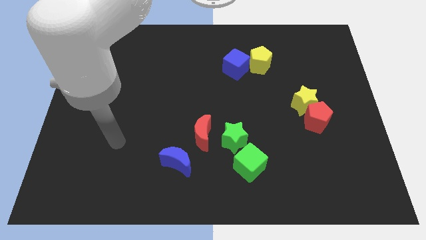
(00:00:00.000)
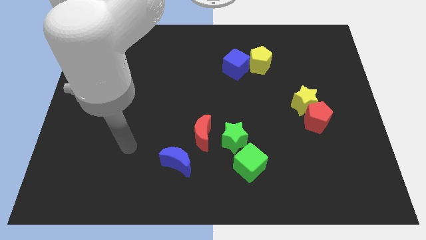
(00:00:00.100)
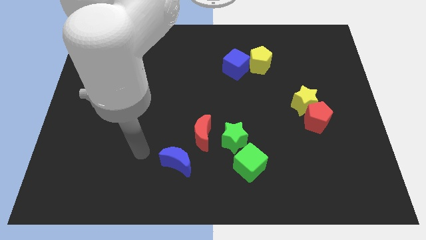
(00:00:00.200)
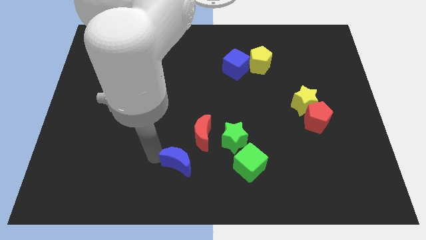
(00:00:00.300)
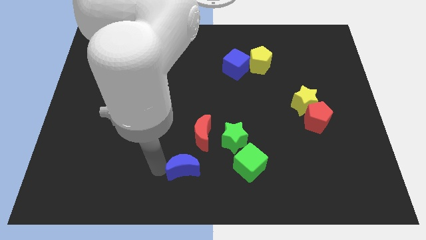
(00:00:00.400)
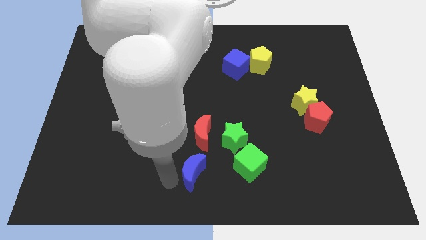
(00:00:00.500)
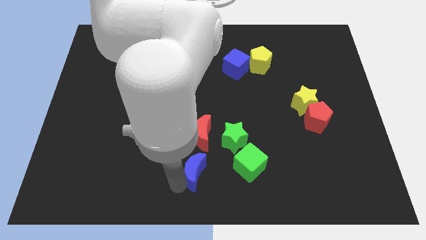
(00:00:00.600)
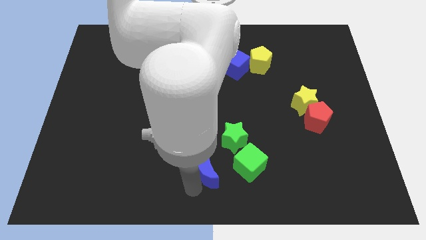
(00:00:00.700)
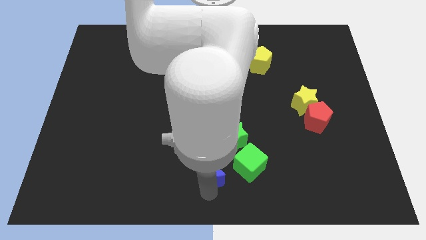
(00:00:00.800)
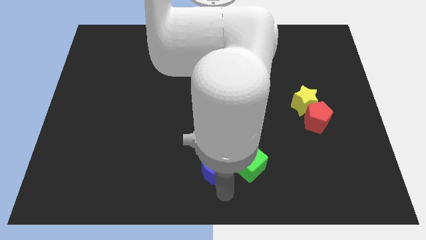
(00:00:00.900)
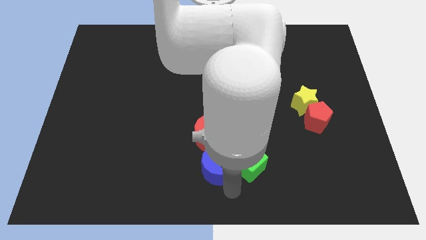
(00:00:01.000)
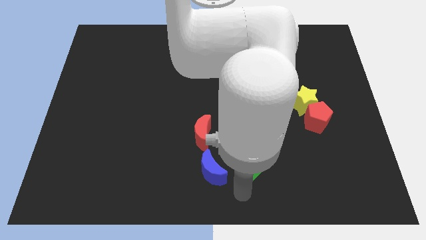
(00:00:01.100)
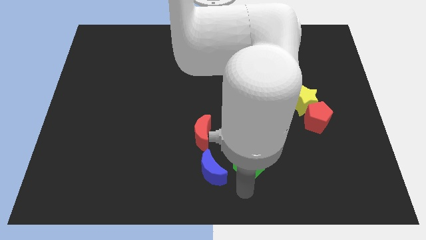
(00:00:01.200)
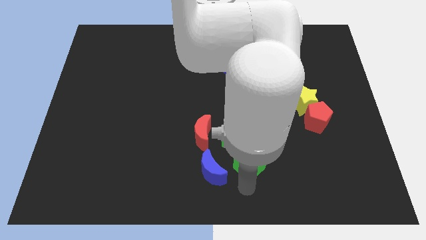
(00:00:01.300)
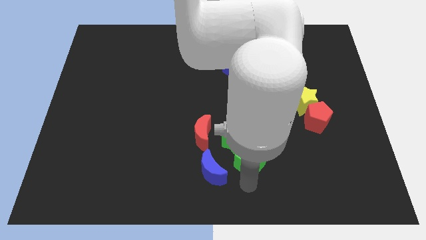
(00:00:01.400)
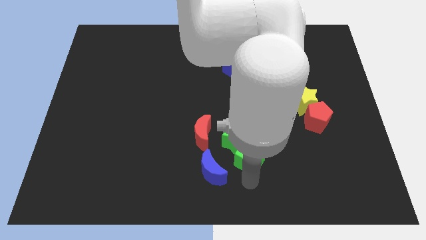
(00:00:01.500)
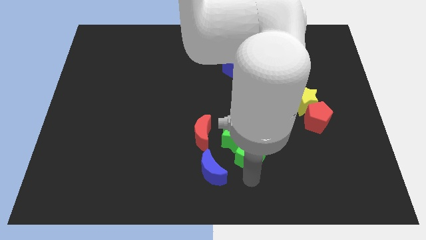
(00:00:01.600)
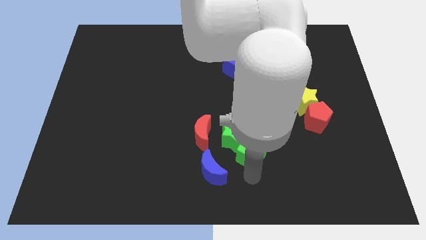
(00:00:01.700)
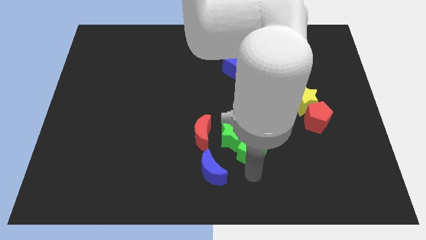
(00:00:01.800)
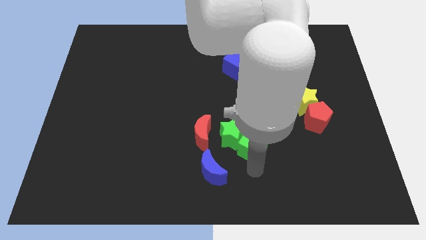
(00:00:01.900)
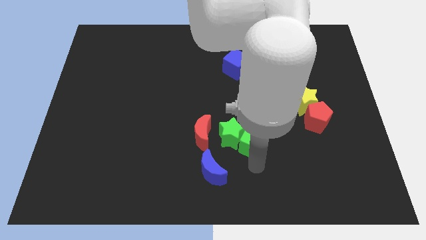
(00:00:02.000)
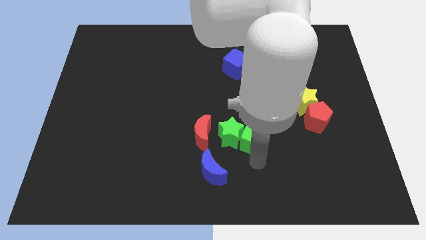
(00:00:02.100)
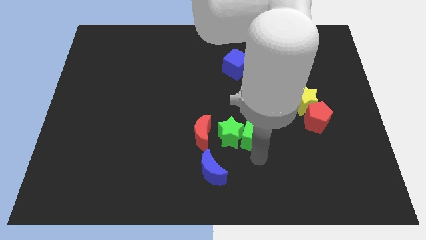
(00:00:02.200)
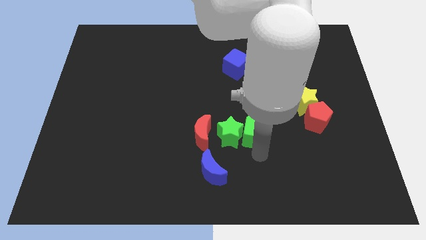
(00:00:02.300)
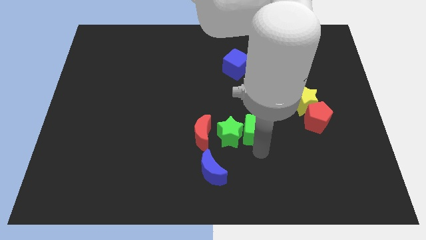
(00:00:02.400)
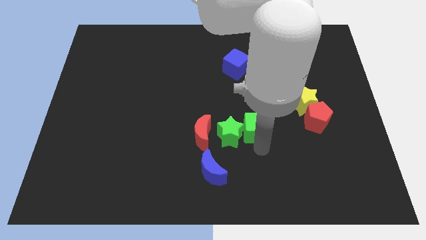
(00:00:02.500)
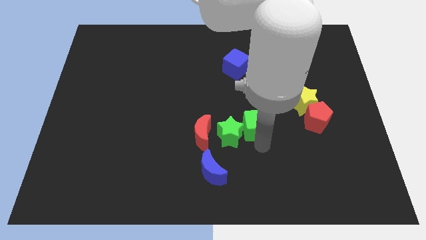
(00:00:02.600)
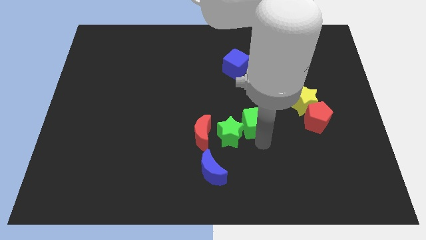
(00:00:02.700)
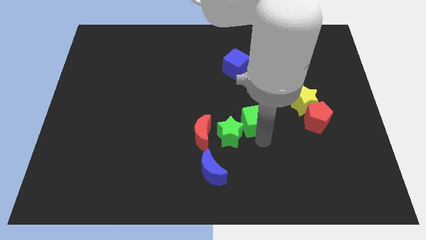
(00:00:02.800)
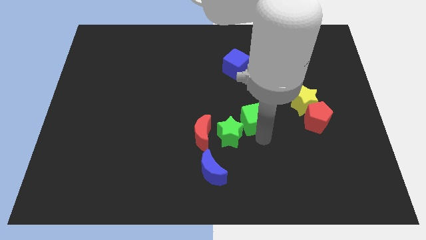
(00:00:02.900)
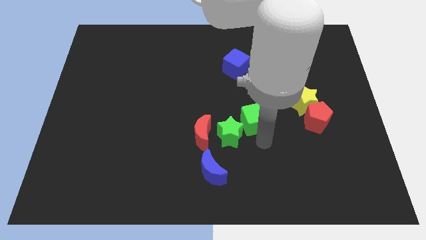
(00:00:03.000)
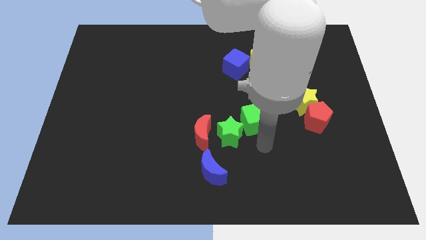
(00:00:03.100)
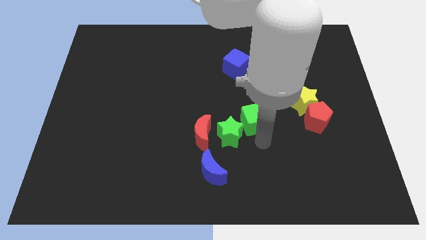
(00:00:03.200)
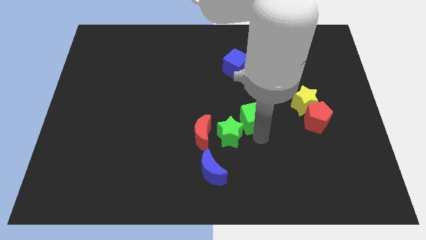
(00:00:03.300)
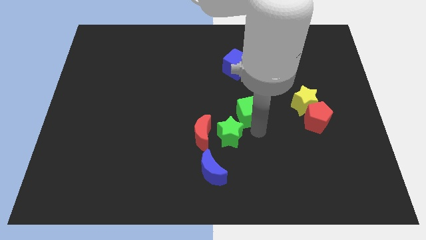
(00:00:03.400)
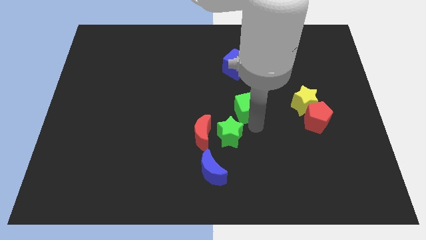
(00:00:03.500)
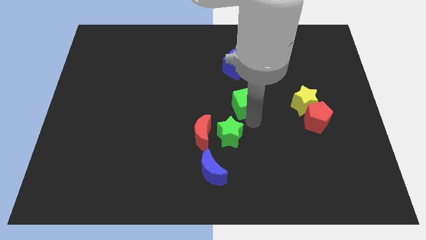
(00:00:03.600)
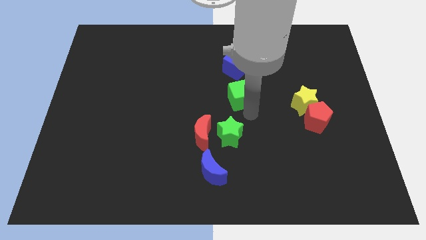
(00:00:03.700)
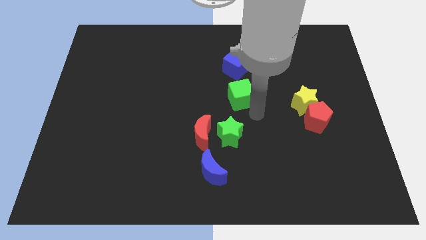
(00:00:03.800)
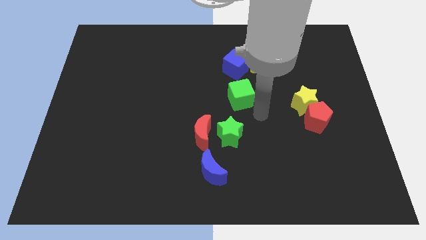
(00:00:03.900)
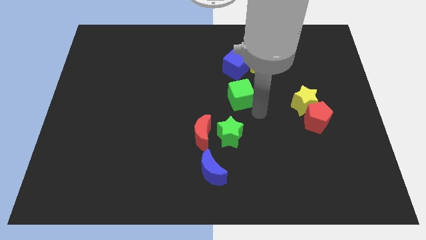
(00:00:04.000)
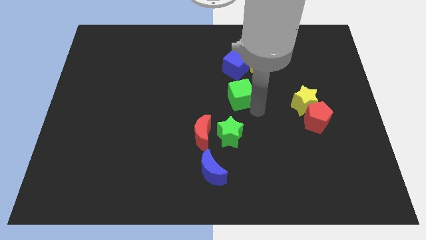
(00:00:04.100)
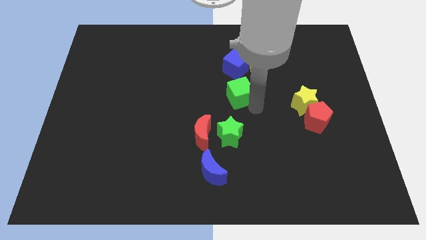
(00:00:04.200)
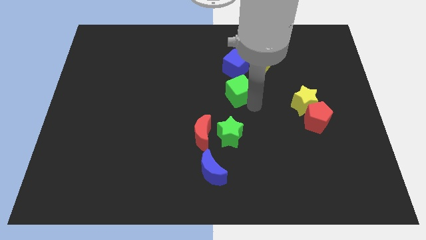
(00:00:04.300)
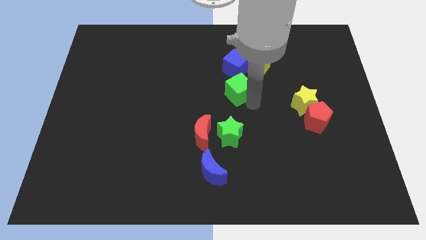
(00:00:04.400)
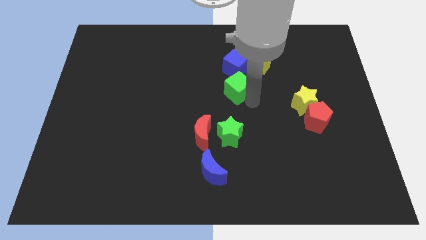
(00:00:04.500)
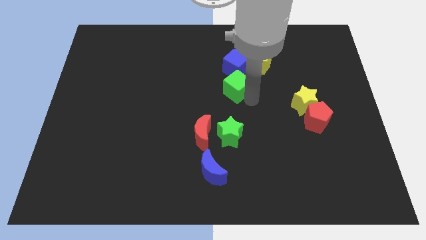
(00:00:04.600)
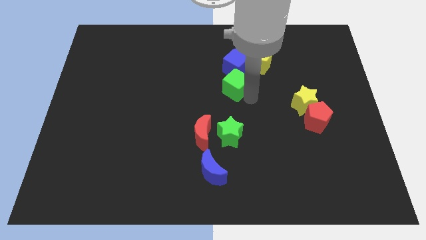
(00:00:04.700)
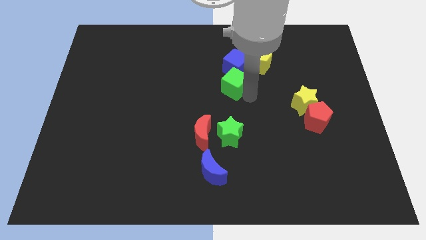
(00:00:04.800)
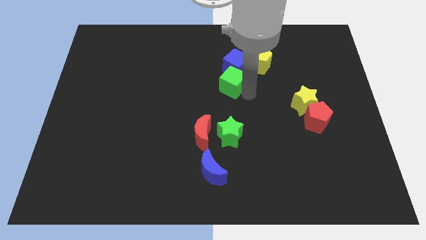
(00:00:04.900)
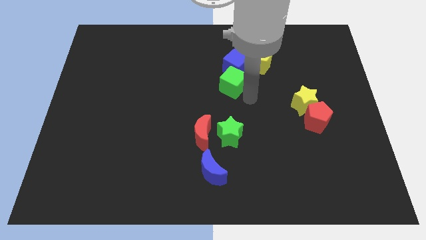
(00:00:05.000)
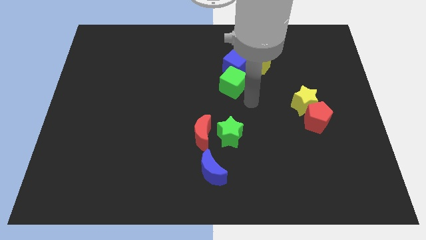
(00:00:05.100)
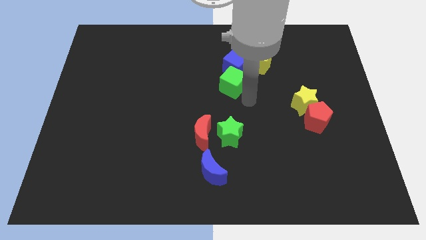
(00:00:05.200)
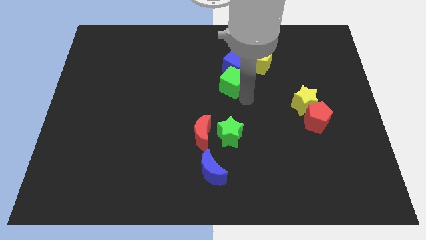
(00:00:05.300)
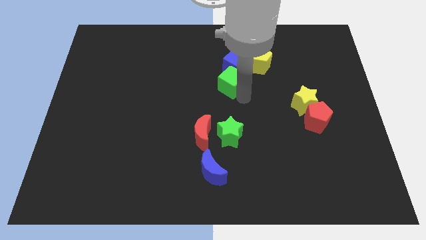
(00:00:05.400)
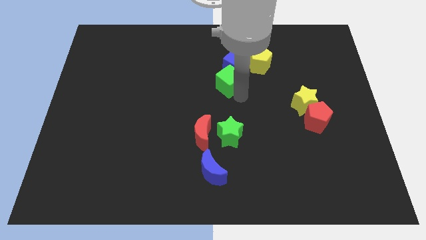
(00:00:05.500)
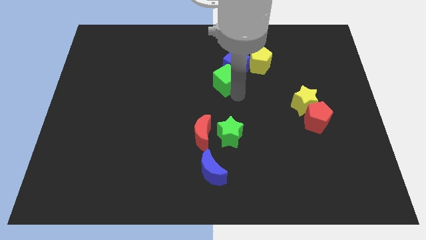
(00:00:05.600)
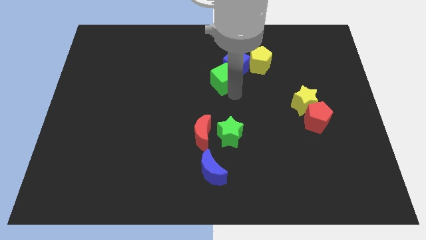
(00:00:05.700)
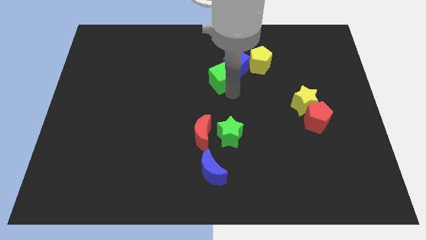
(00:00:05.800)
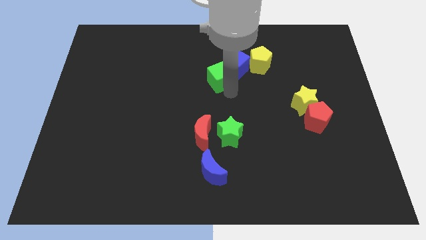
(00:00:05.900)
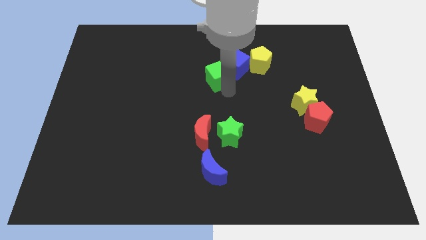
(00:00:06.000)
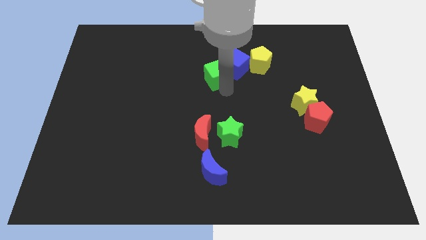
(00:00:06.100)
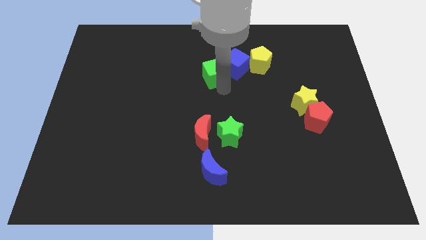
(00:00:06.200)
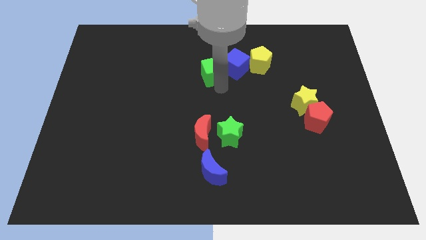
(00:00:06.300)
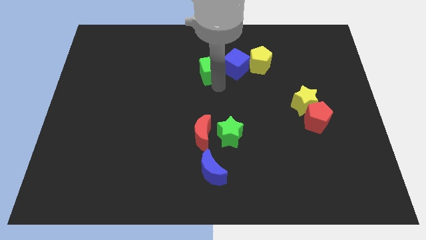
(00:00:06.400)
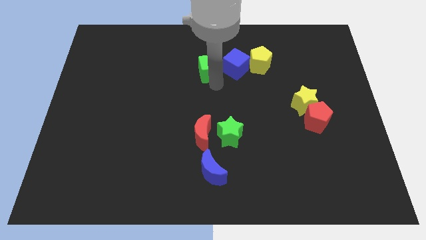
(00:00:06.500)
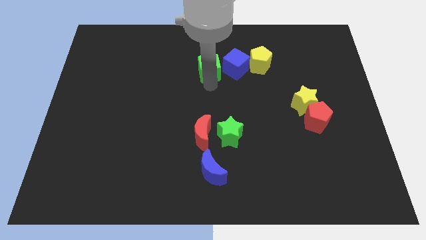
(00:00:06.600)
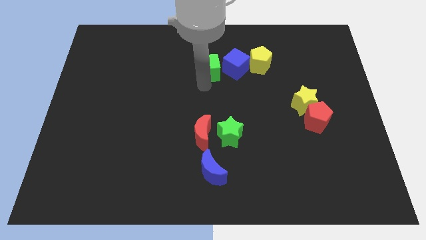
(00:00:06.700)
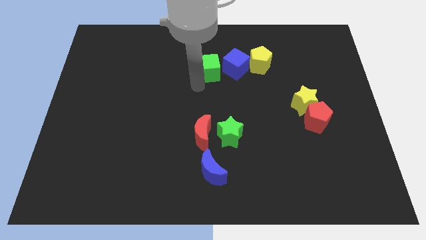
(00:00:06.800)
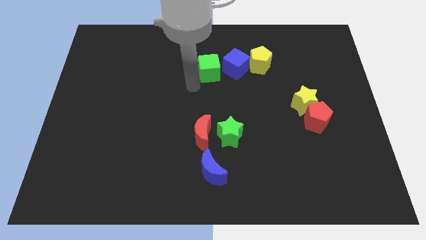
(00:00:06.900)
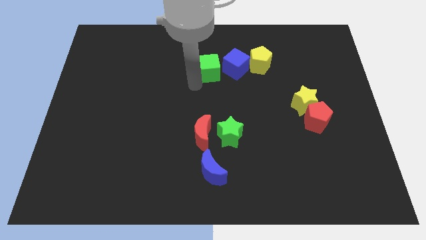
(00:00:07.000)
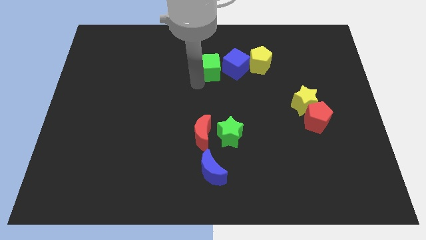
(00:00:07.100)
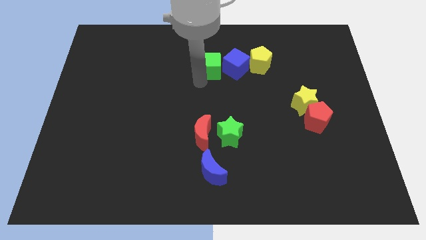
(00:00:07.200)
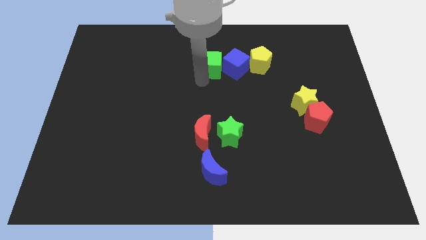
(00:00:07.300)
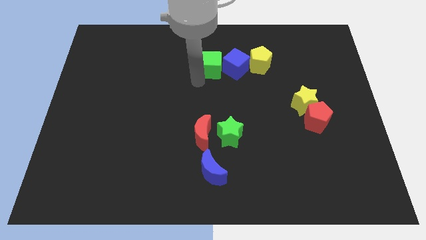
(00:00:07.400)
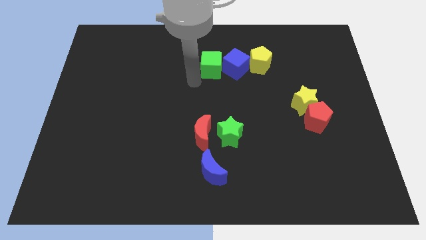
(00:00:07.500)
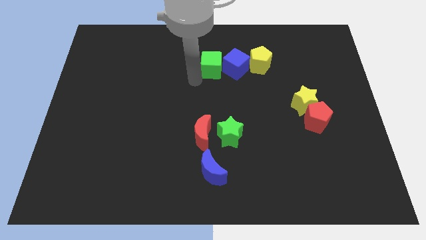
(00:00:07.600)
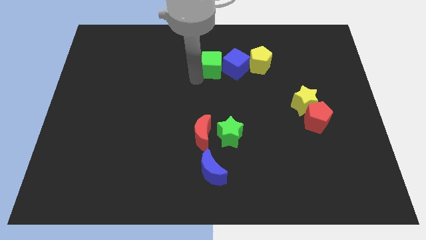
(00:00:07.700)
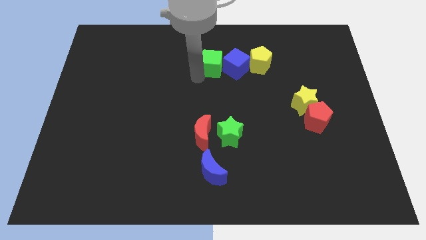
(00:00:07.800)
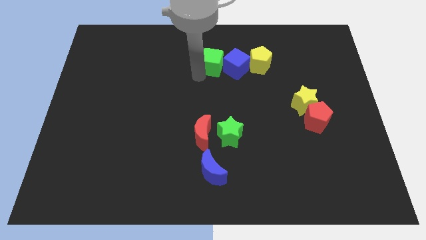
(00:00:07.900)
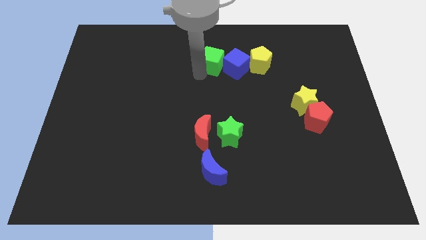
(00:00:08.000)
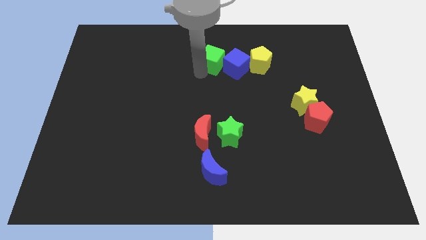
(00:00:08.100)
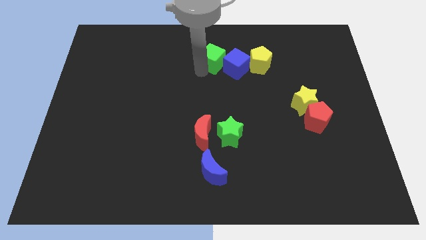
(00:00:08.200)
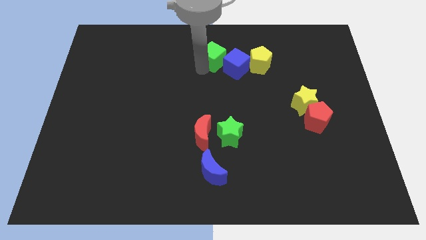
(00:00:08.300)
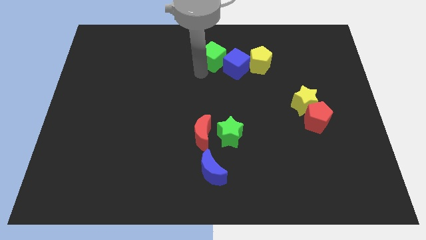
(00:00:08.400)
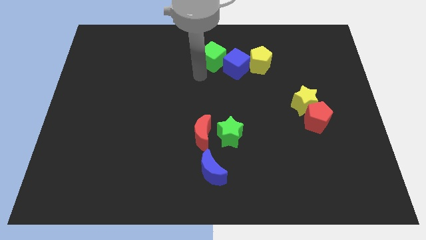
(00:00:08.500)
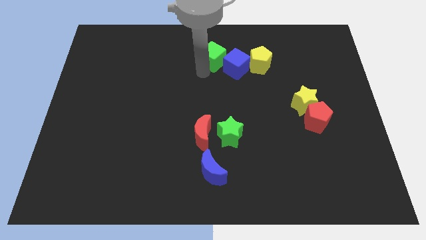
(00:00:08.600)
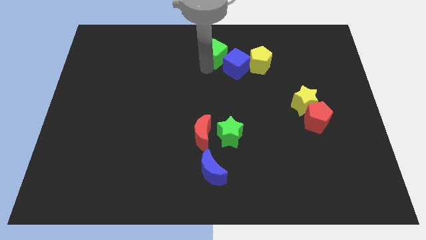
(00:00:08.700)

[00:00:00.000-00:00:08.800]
move the green cube to the top
